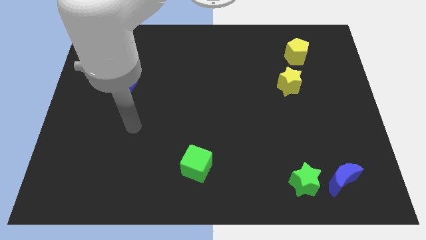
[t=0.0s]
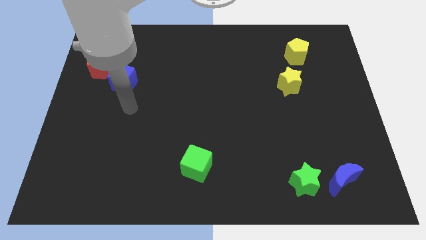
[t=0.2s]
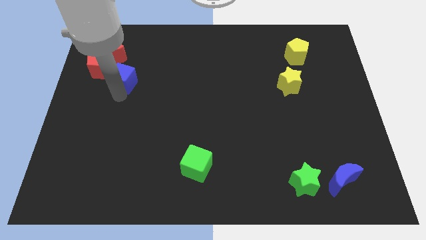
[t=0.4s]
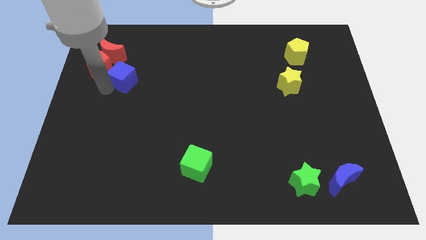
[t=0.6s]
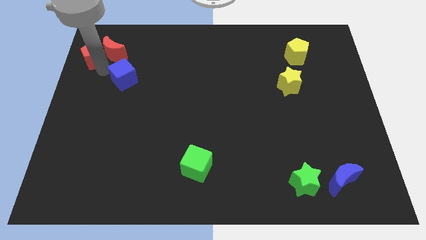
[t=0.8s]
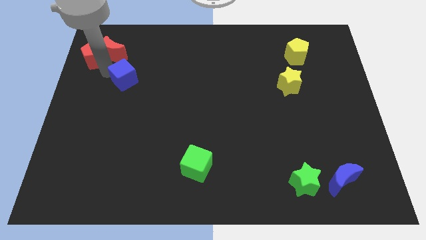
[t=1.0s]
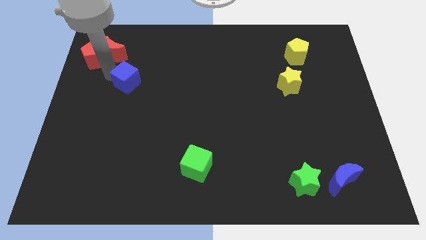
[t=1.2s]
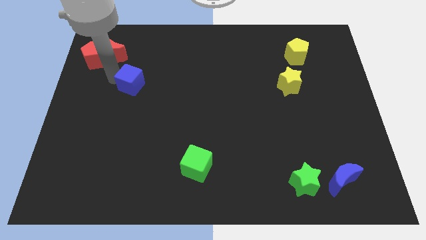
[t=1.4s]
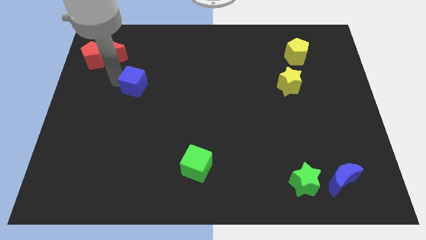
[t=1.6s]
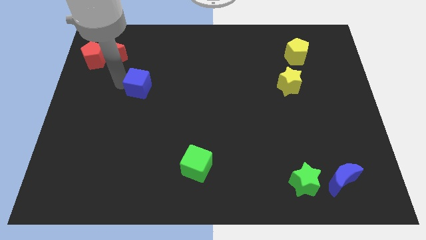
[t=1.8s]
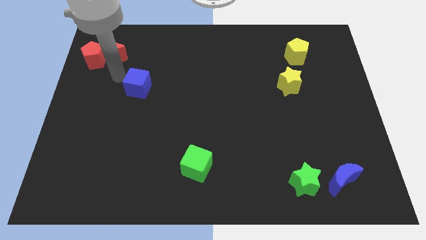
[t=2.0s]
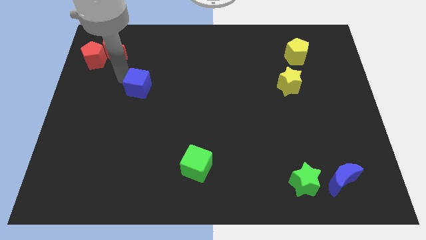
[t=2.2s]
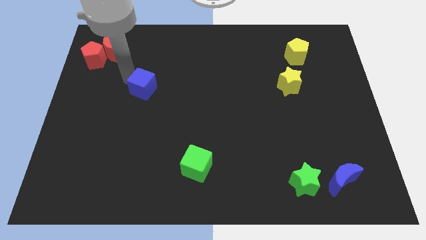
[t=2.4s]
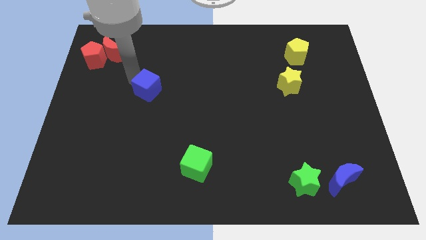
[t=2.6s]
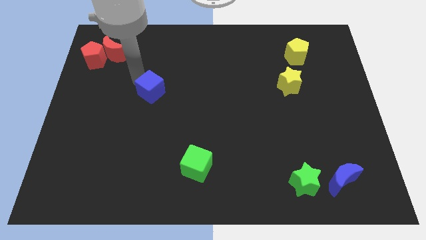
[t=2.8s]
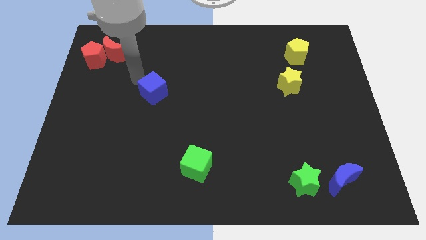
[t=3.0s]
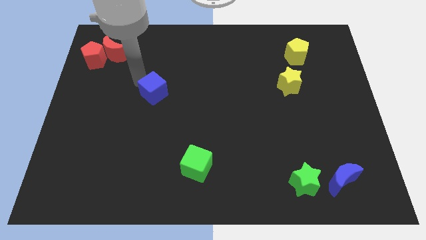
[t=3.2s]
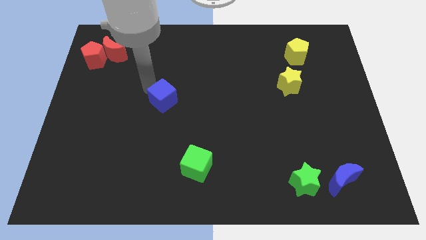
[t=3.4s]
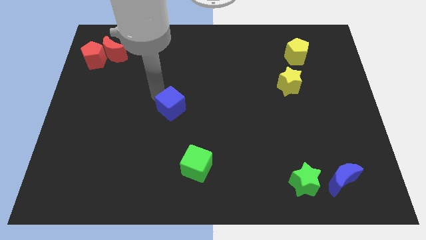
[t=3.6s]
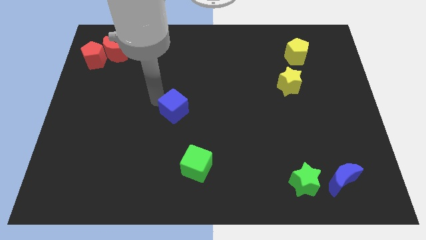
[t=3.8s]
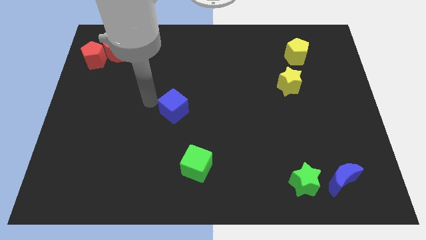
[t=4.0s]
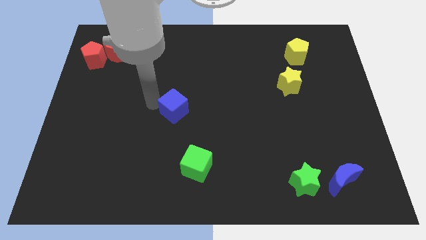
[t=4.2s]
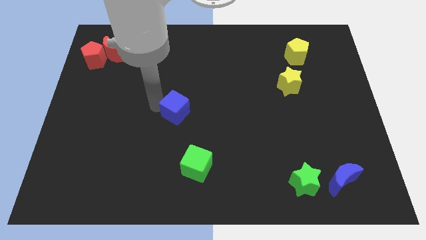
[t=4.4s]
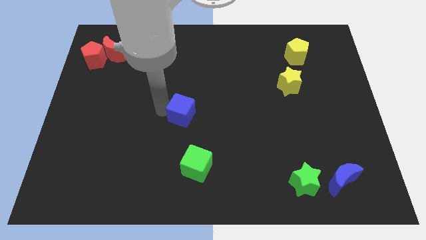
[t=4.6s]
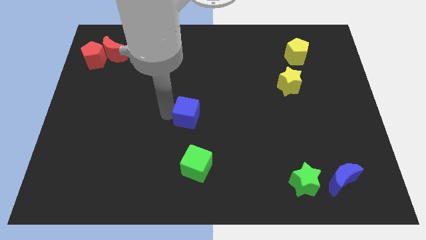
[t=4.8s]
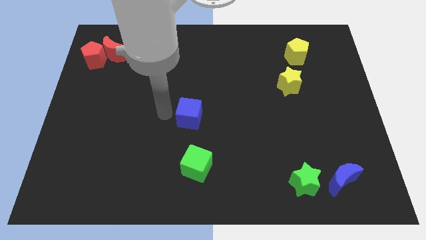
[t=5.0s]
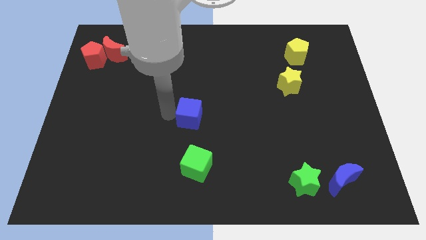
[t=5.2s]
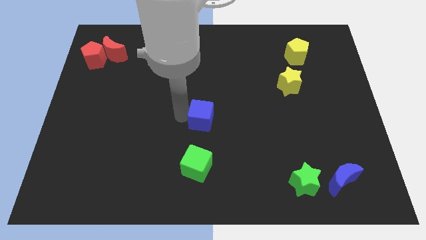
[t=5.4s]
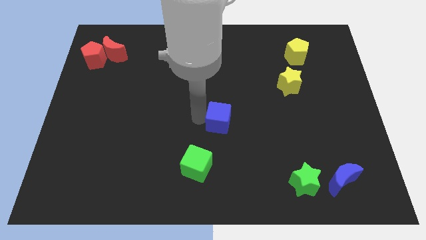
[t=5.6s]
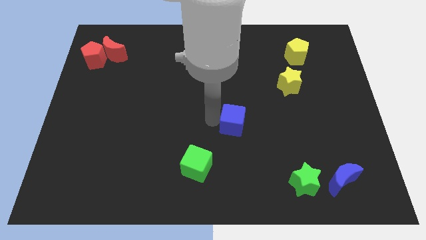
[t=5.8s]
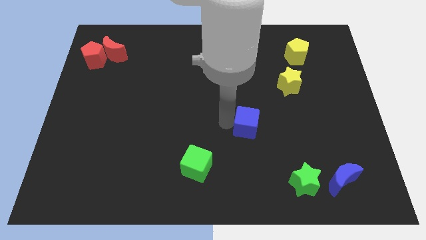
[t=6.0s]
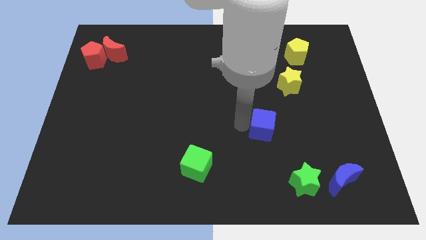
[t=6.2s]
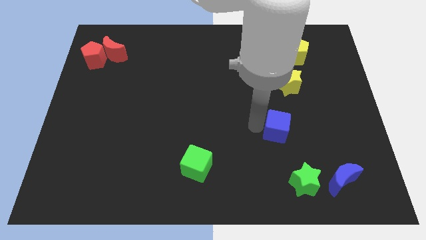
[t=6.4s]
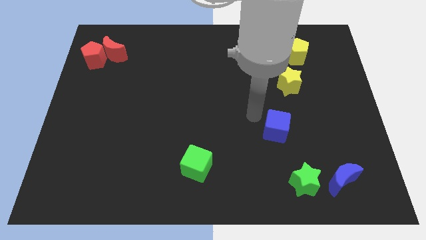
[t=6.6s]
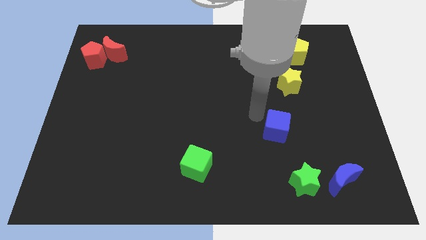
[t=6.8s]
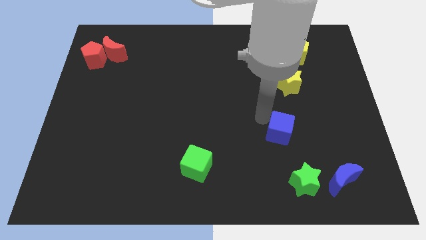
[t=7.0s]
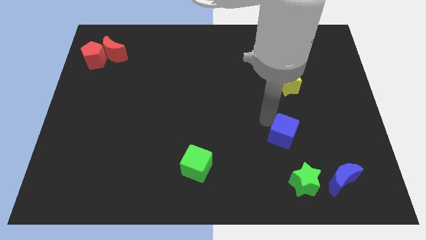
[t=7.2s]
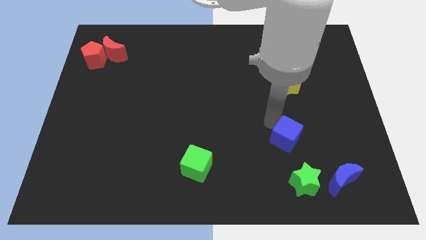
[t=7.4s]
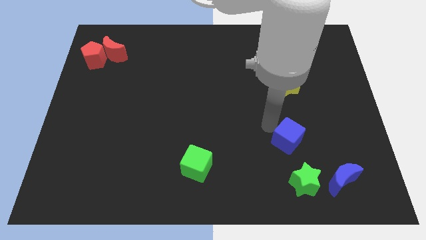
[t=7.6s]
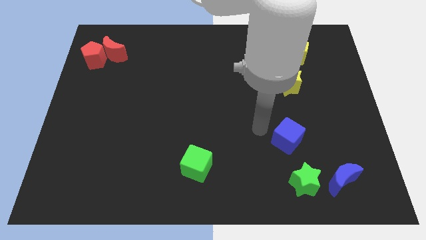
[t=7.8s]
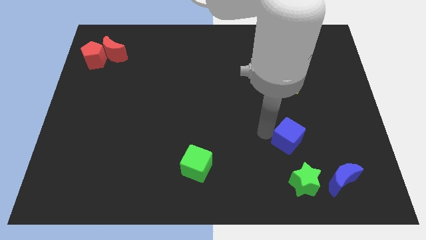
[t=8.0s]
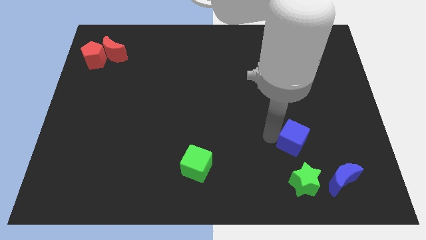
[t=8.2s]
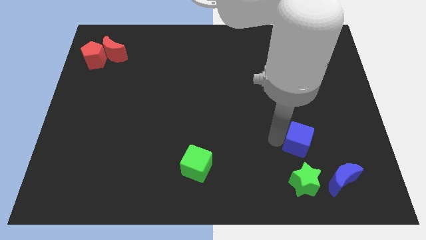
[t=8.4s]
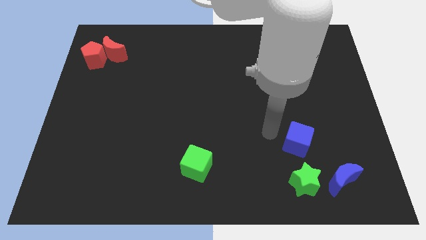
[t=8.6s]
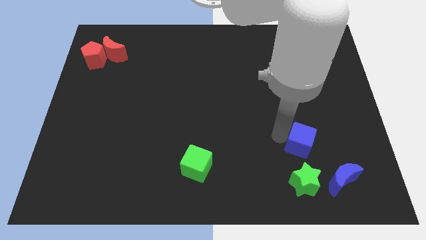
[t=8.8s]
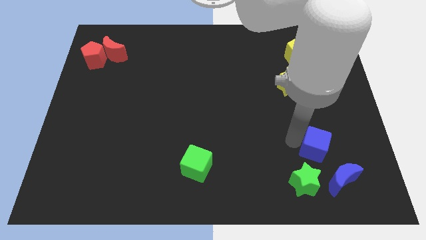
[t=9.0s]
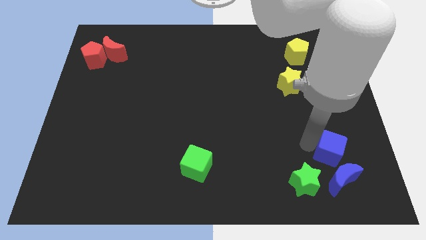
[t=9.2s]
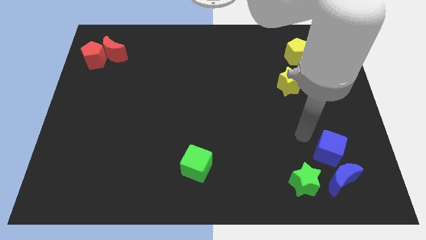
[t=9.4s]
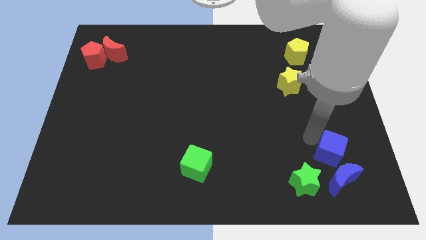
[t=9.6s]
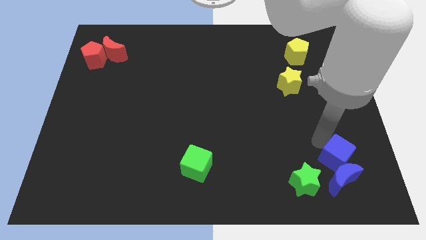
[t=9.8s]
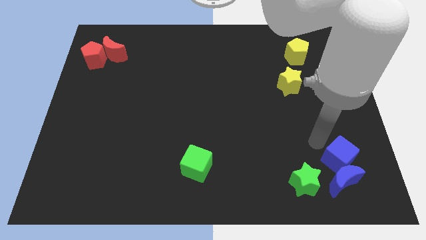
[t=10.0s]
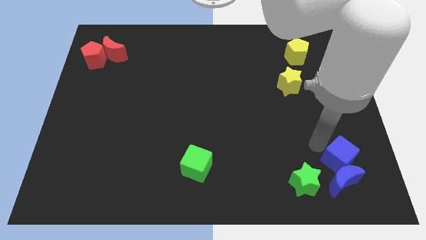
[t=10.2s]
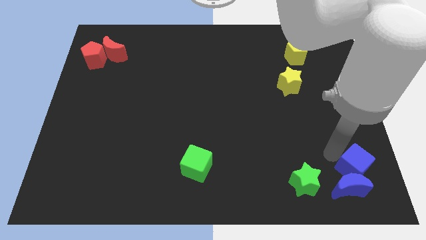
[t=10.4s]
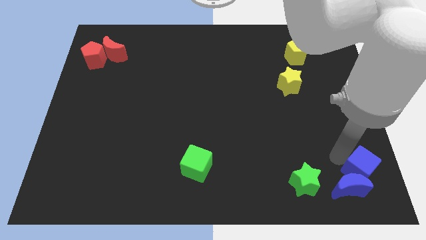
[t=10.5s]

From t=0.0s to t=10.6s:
move the blue cube to the bottom right corner
